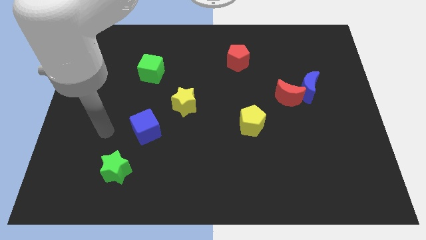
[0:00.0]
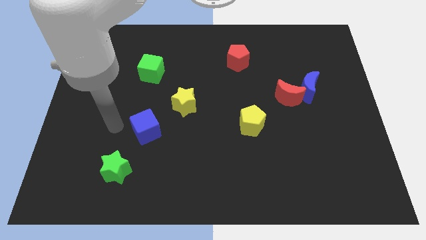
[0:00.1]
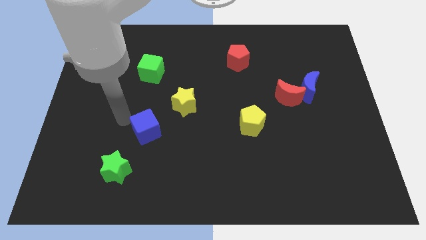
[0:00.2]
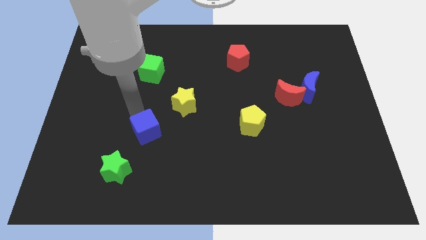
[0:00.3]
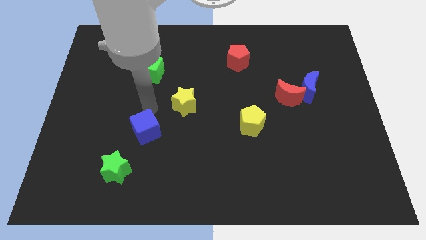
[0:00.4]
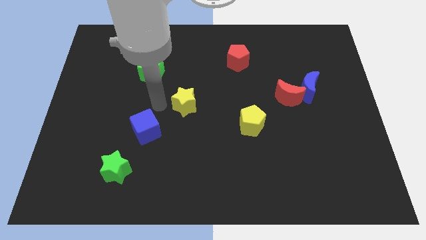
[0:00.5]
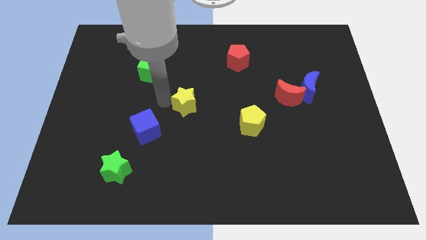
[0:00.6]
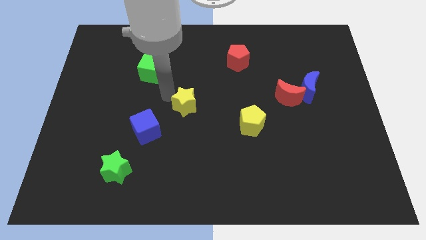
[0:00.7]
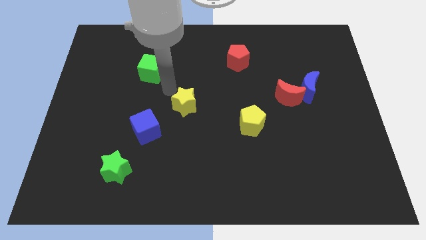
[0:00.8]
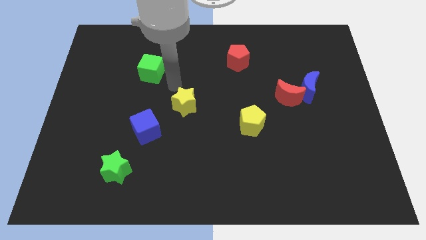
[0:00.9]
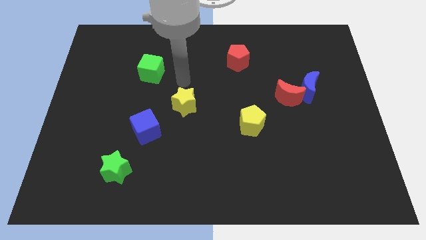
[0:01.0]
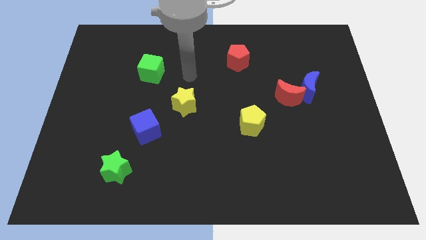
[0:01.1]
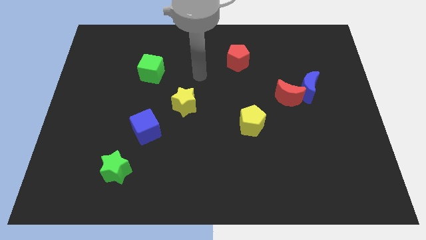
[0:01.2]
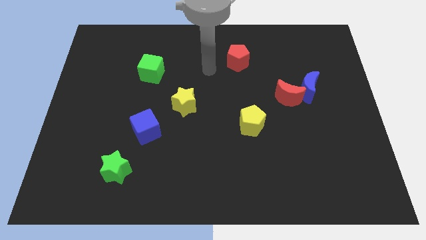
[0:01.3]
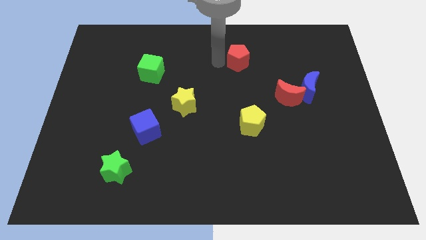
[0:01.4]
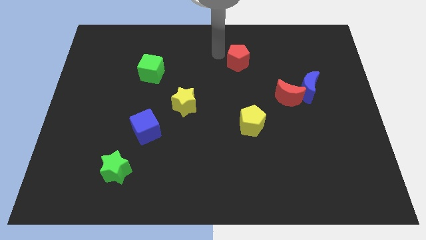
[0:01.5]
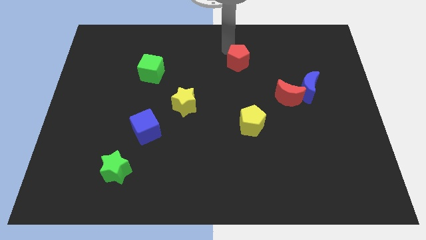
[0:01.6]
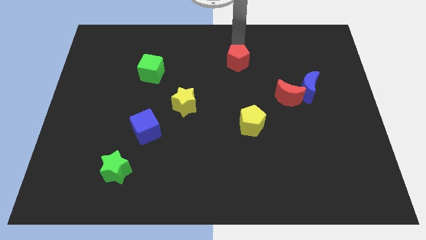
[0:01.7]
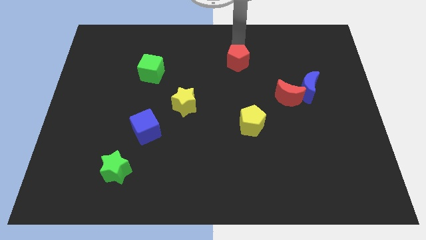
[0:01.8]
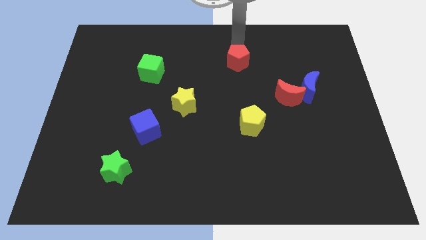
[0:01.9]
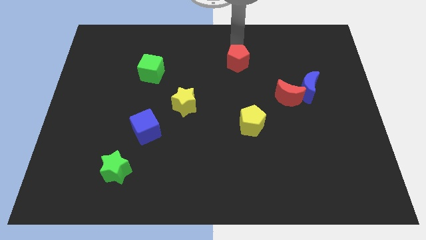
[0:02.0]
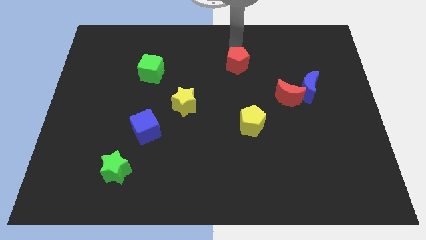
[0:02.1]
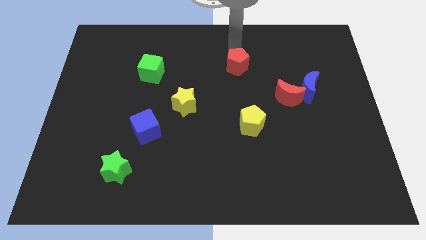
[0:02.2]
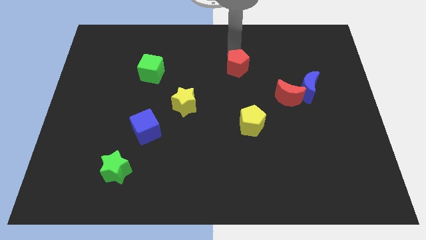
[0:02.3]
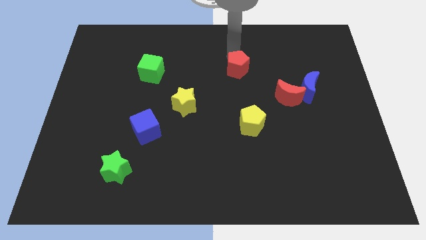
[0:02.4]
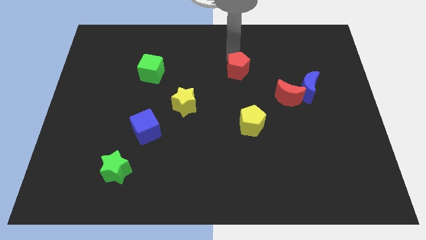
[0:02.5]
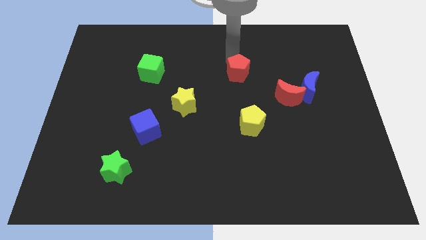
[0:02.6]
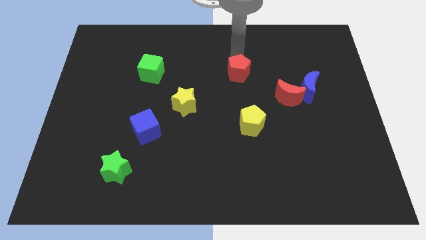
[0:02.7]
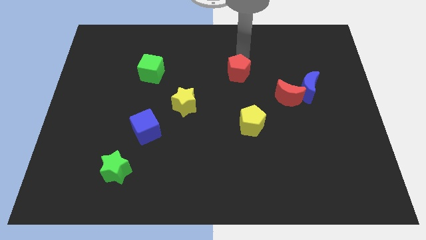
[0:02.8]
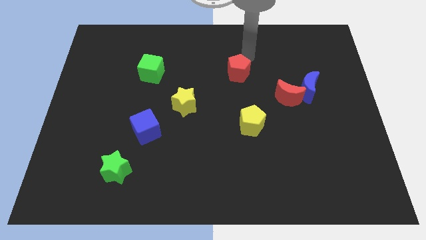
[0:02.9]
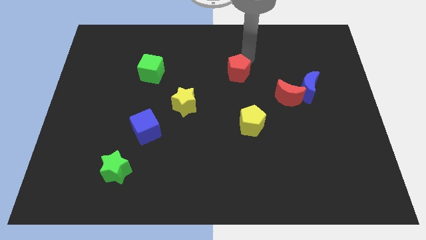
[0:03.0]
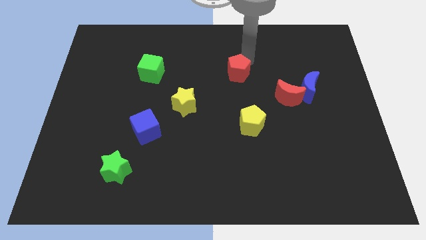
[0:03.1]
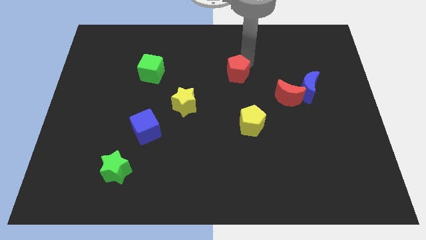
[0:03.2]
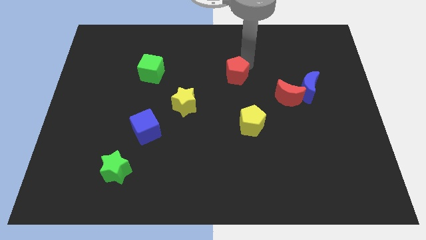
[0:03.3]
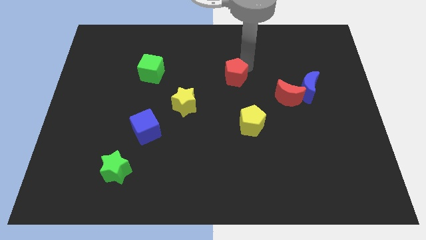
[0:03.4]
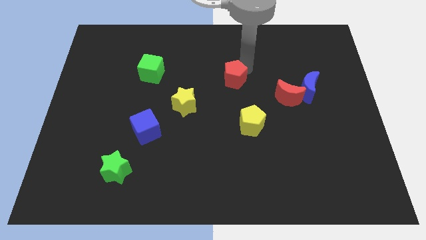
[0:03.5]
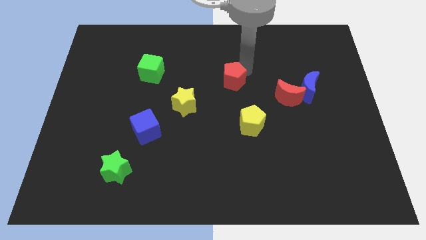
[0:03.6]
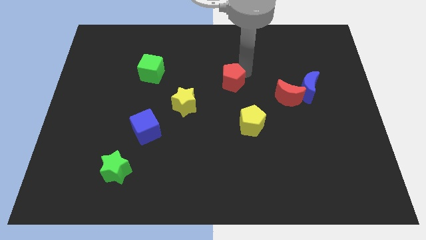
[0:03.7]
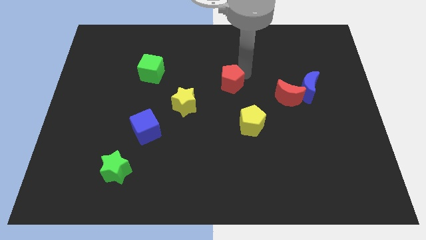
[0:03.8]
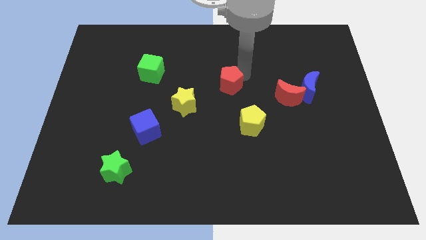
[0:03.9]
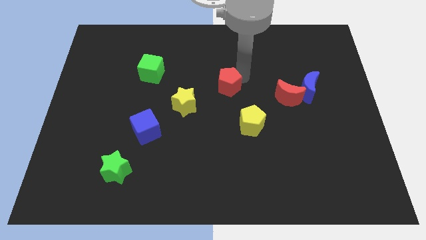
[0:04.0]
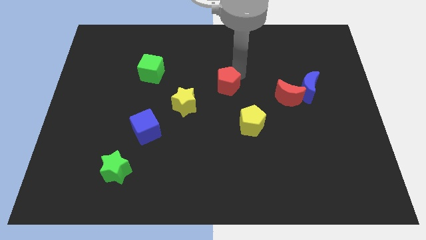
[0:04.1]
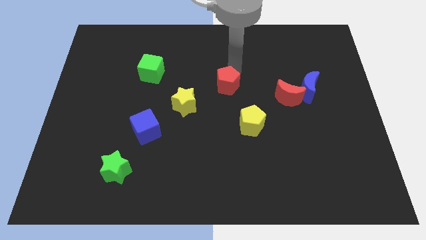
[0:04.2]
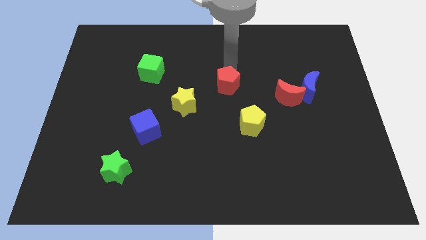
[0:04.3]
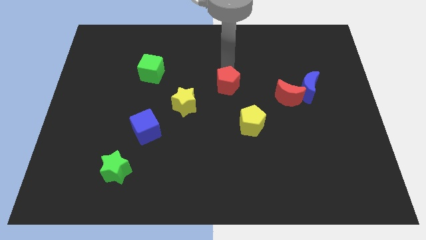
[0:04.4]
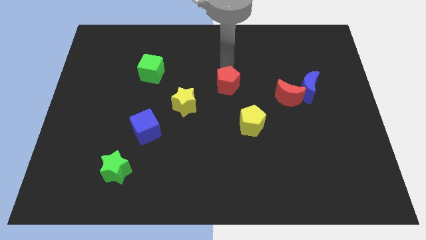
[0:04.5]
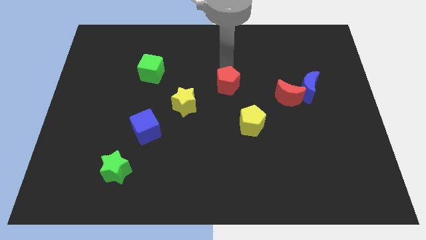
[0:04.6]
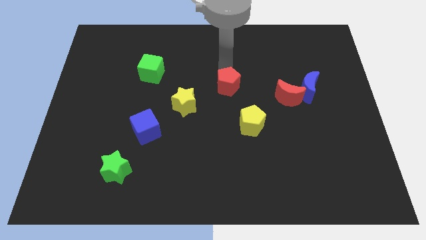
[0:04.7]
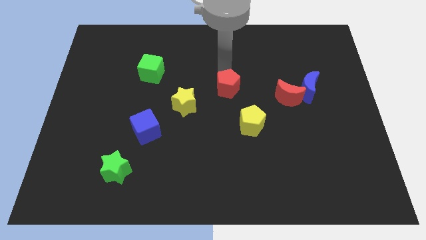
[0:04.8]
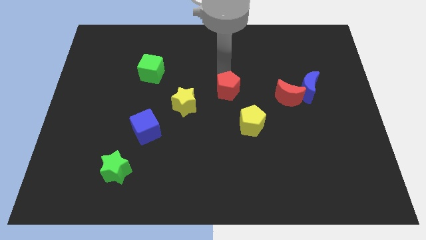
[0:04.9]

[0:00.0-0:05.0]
put the red pentagon diagonally up and to the left of the yellow pentagon

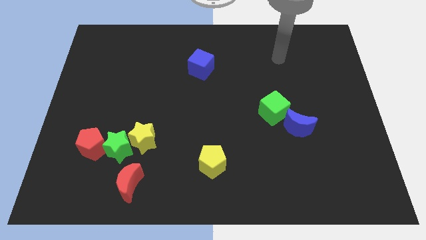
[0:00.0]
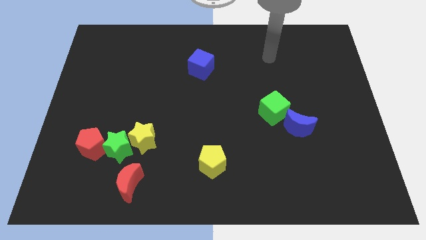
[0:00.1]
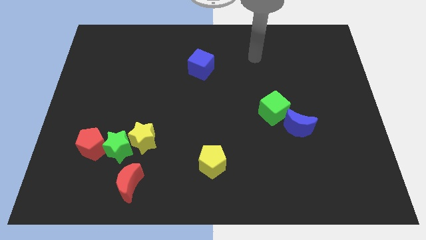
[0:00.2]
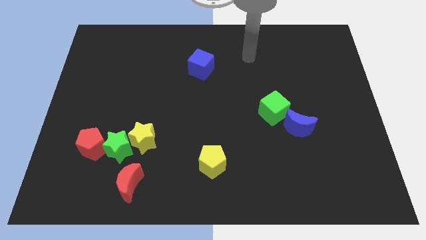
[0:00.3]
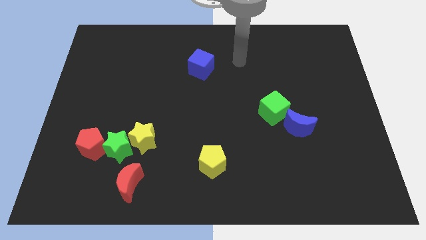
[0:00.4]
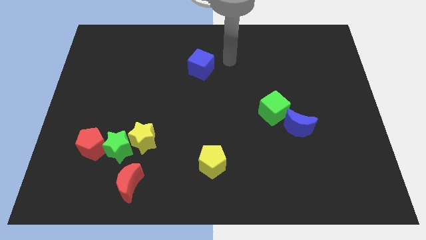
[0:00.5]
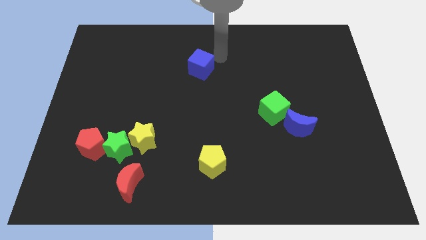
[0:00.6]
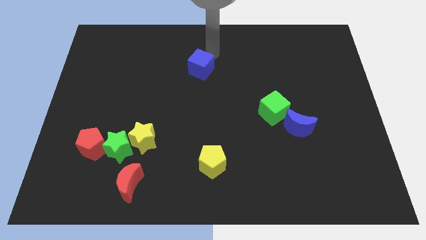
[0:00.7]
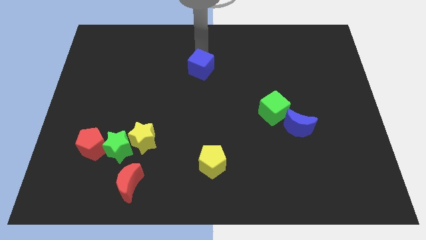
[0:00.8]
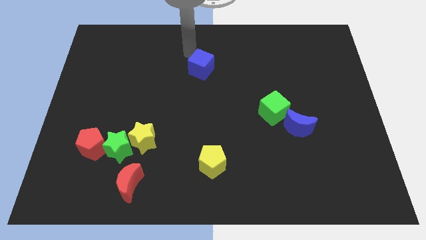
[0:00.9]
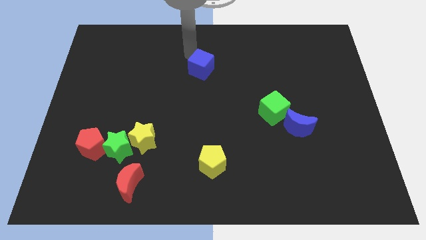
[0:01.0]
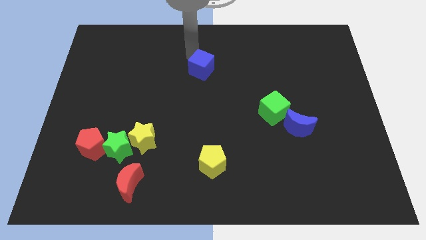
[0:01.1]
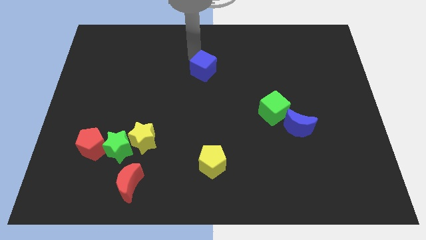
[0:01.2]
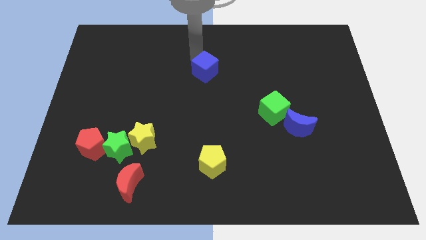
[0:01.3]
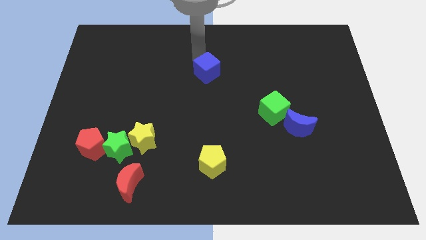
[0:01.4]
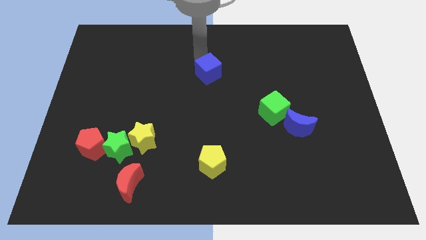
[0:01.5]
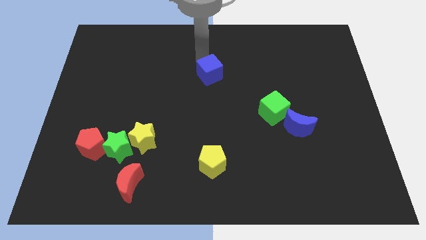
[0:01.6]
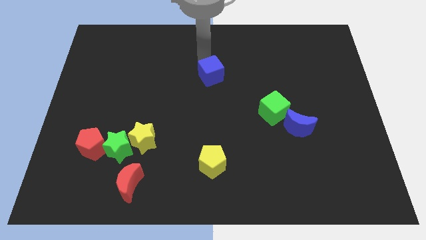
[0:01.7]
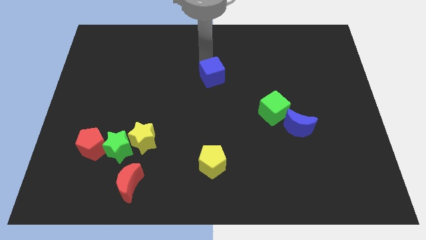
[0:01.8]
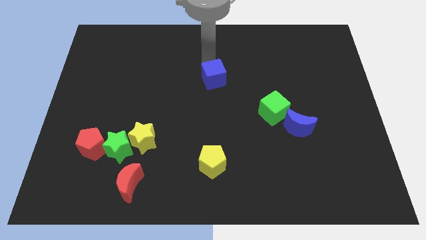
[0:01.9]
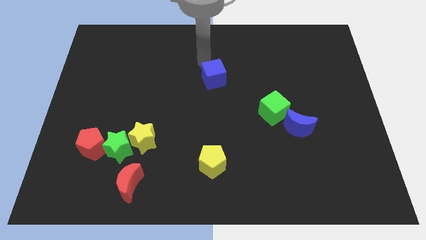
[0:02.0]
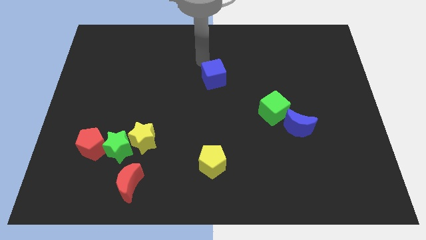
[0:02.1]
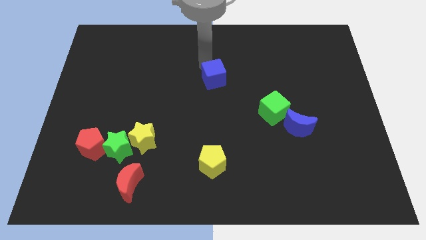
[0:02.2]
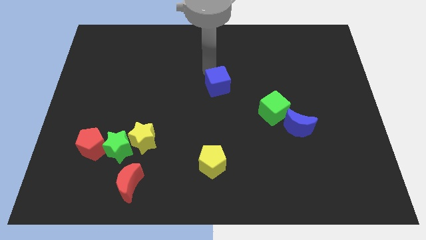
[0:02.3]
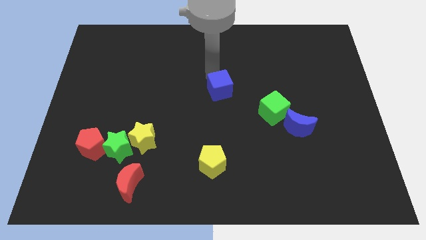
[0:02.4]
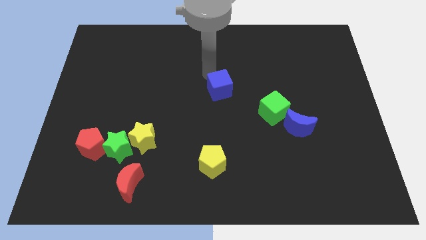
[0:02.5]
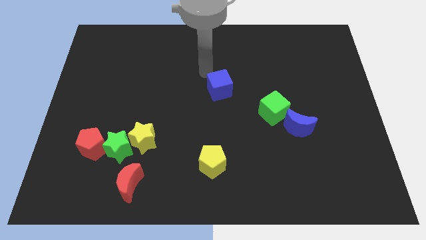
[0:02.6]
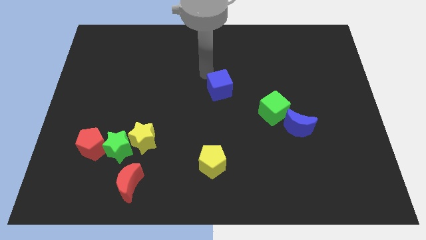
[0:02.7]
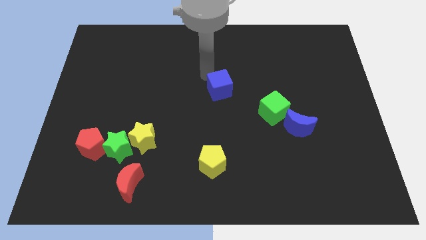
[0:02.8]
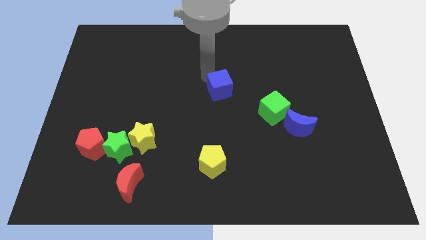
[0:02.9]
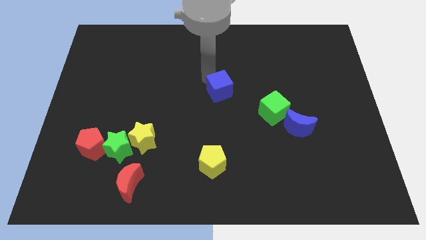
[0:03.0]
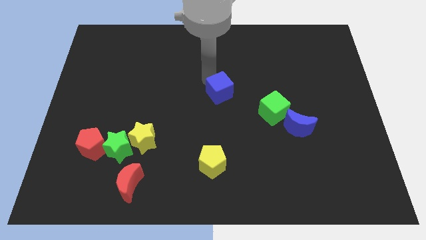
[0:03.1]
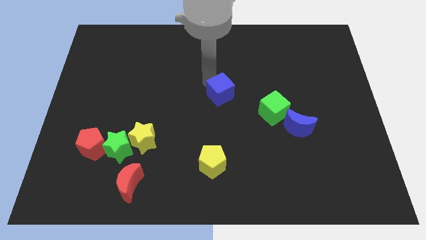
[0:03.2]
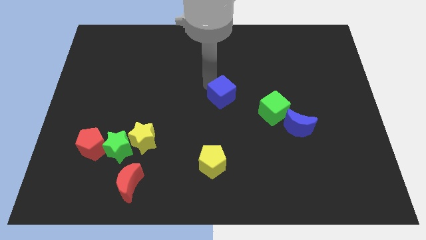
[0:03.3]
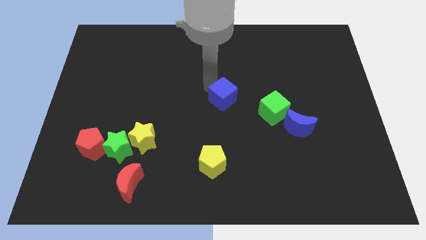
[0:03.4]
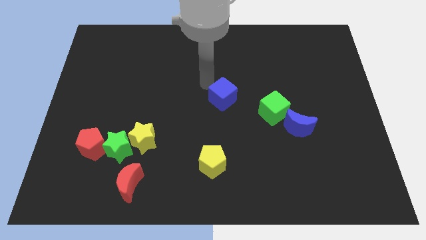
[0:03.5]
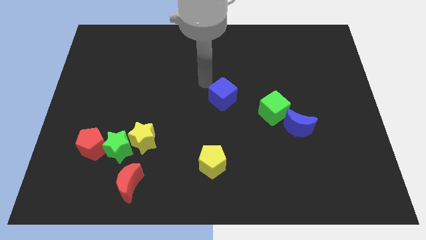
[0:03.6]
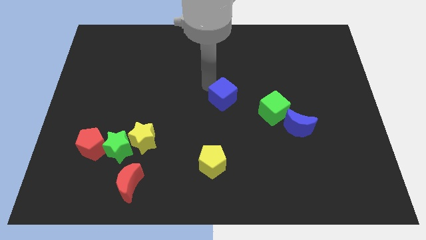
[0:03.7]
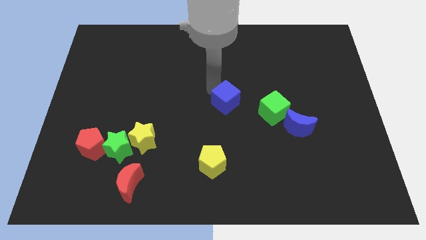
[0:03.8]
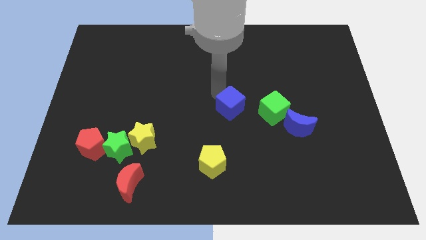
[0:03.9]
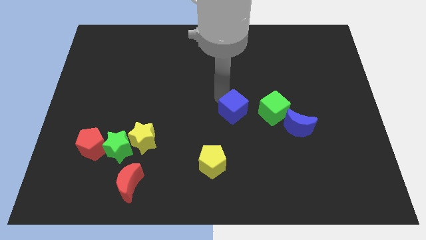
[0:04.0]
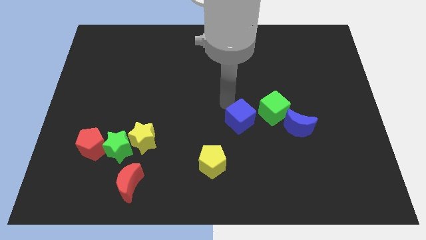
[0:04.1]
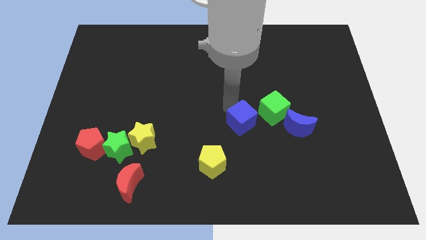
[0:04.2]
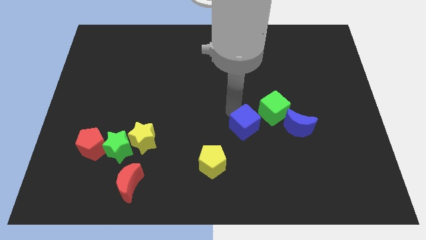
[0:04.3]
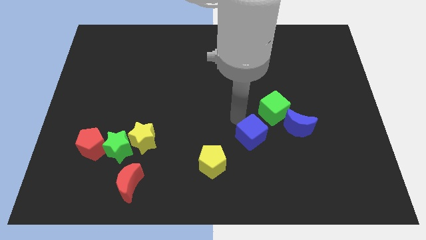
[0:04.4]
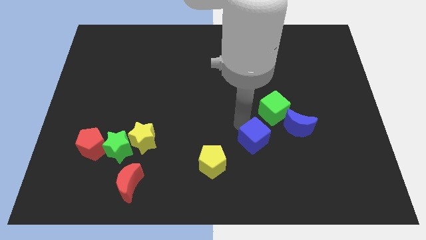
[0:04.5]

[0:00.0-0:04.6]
put the blue cube to the bottom of the green cube
